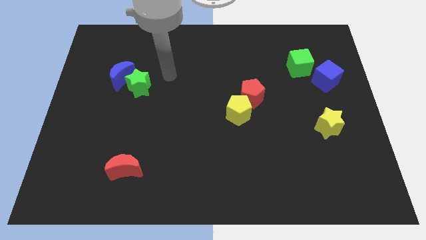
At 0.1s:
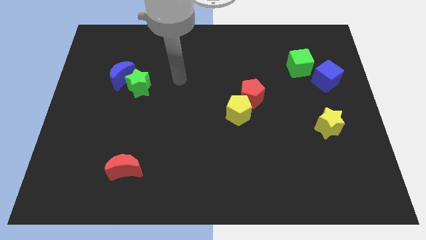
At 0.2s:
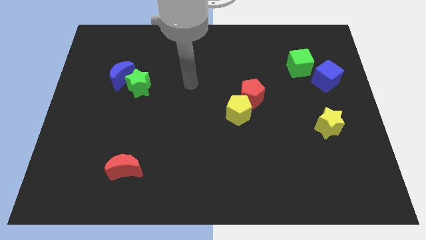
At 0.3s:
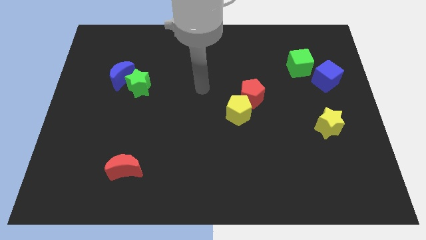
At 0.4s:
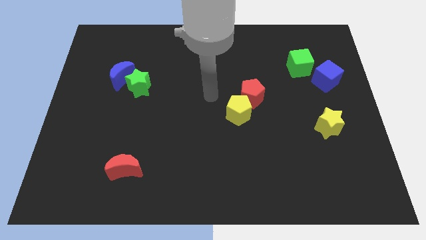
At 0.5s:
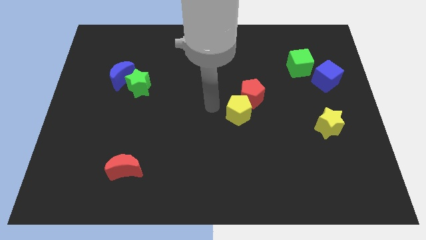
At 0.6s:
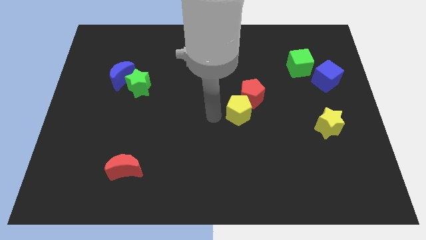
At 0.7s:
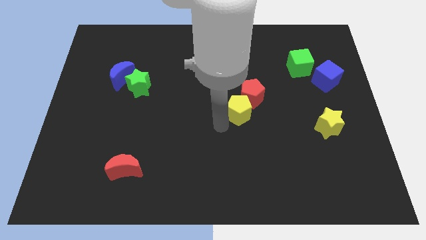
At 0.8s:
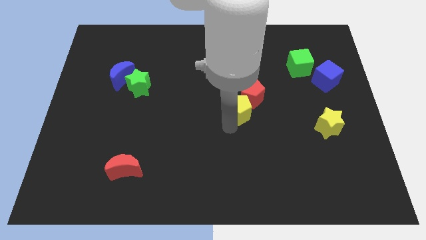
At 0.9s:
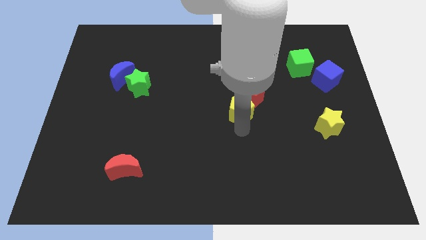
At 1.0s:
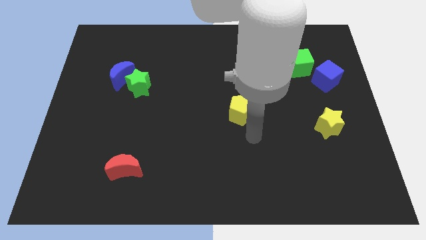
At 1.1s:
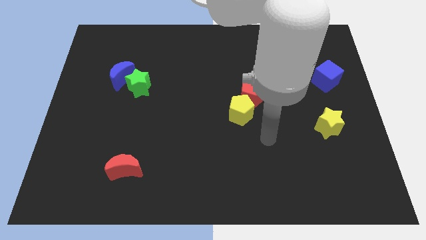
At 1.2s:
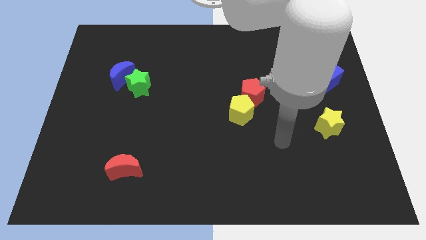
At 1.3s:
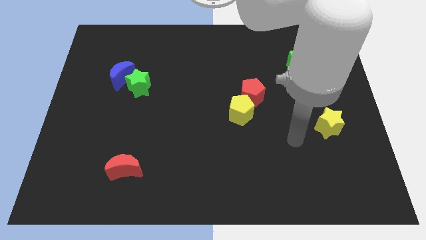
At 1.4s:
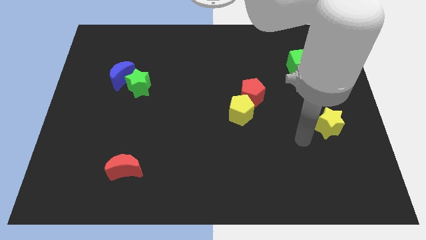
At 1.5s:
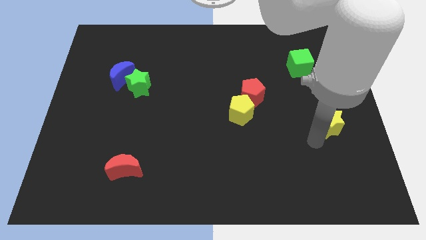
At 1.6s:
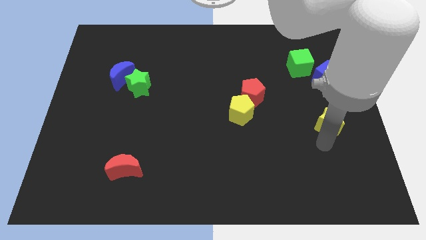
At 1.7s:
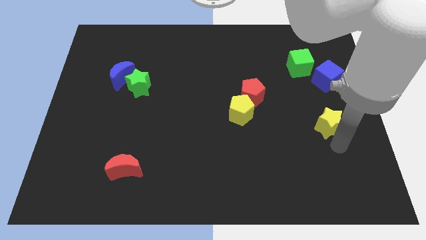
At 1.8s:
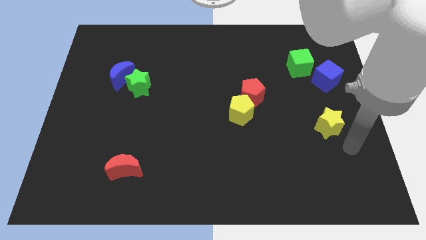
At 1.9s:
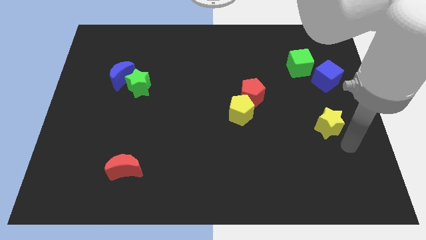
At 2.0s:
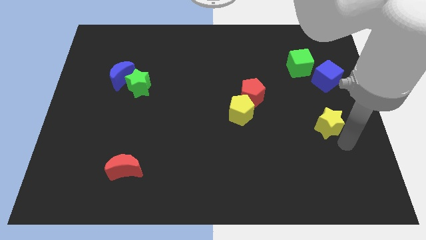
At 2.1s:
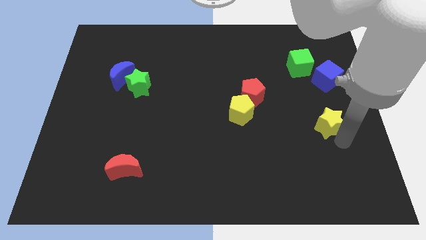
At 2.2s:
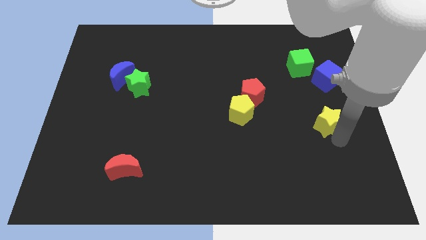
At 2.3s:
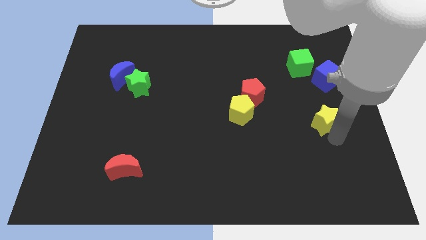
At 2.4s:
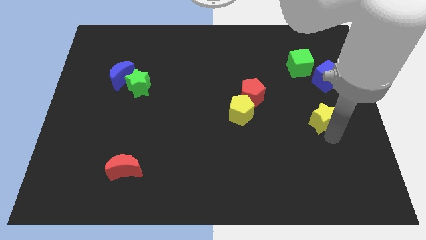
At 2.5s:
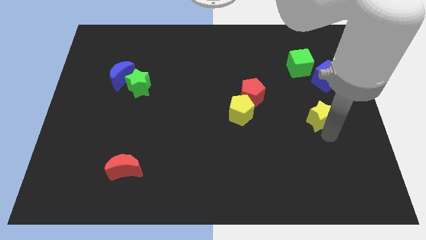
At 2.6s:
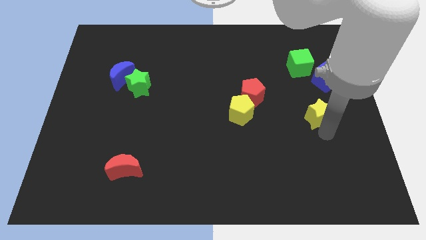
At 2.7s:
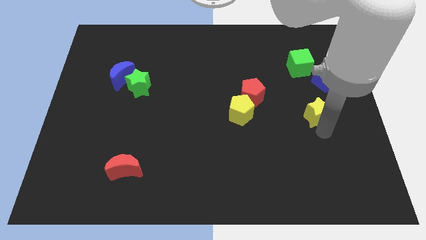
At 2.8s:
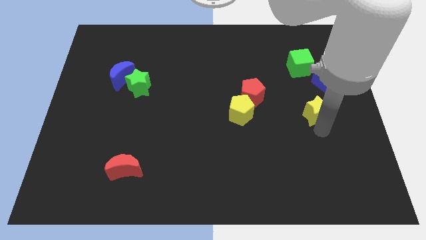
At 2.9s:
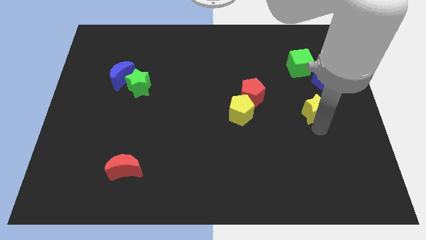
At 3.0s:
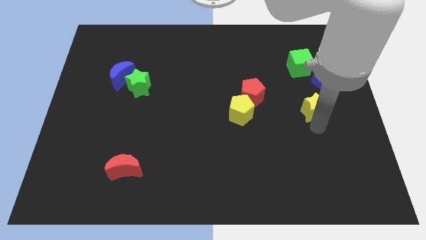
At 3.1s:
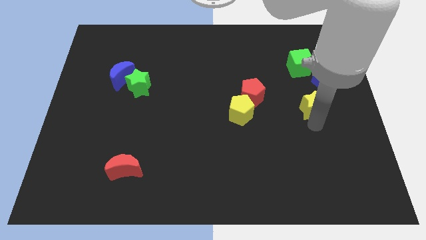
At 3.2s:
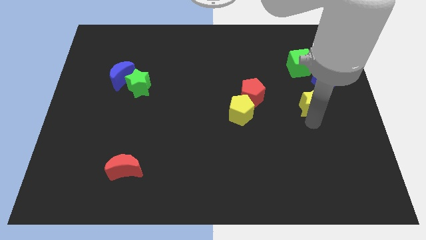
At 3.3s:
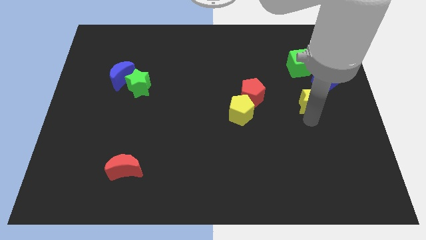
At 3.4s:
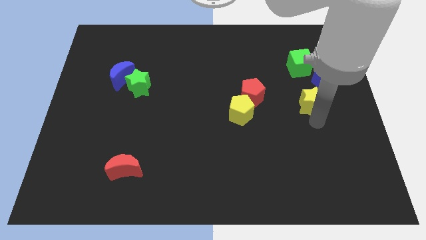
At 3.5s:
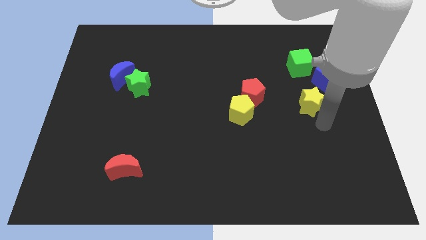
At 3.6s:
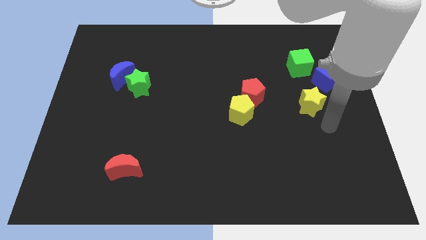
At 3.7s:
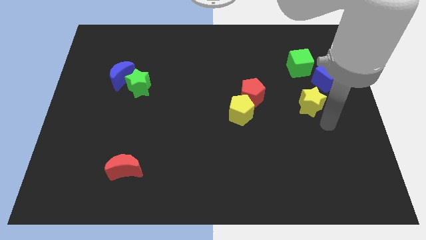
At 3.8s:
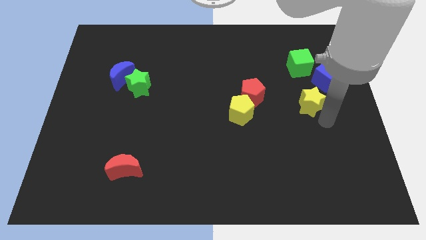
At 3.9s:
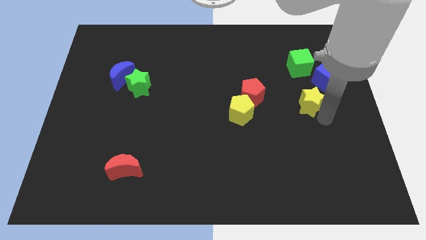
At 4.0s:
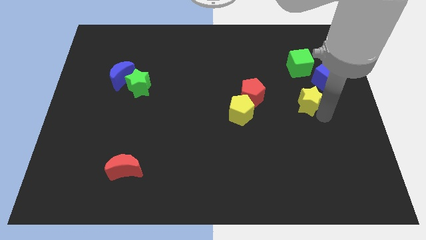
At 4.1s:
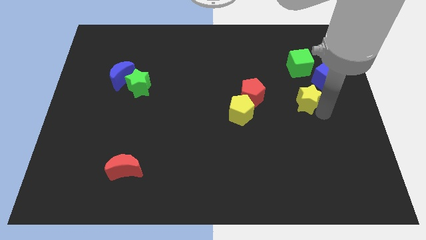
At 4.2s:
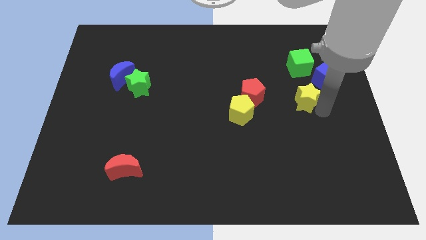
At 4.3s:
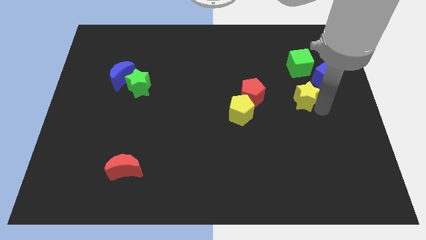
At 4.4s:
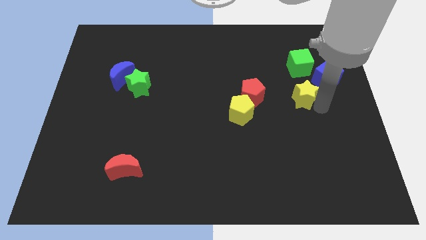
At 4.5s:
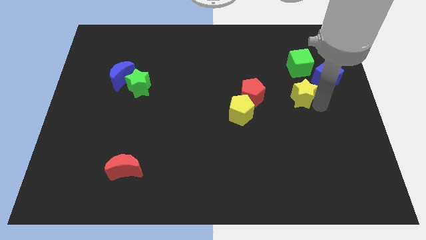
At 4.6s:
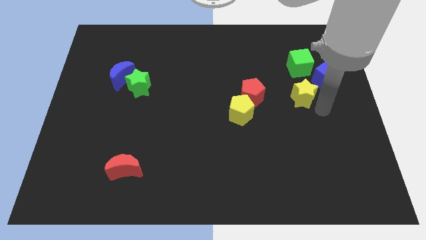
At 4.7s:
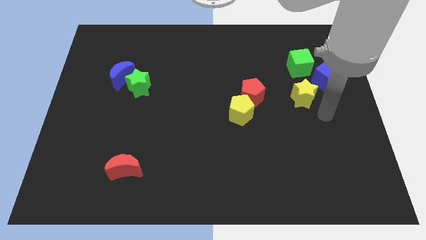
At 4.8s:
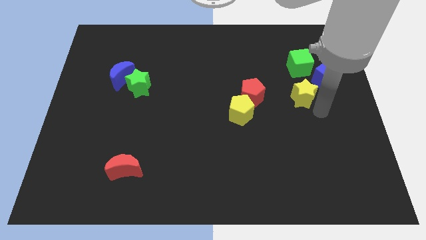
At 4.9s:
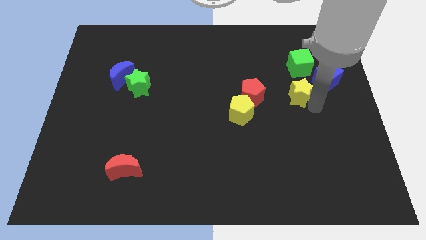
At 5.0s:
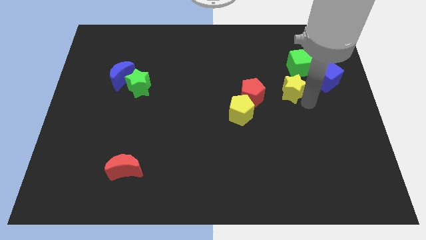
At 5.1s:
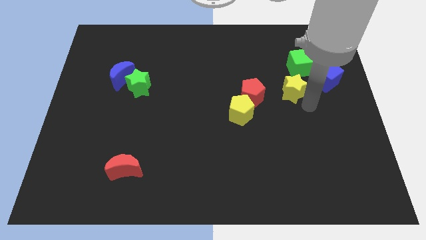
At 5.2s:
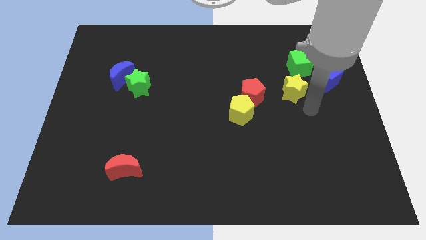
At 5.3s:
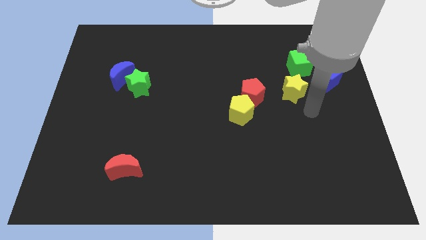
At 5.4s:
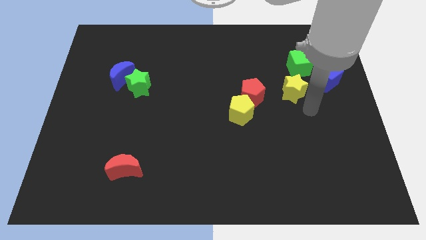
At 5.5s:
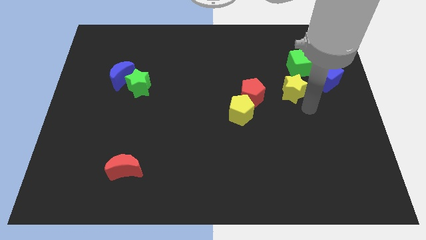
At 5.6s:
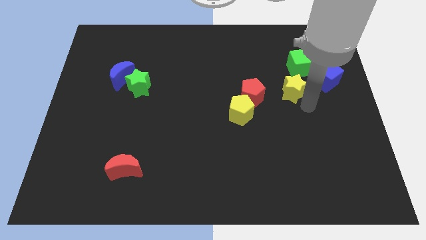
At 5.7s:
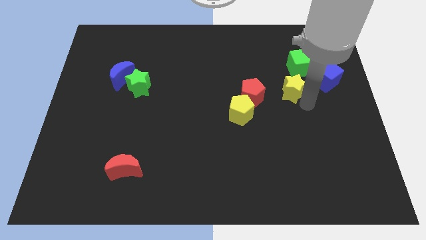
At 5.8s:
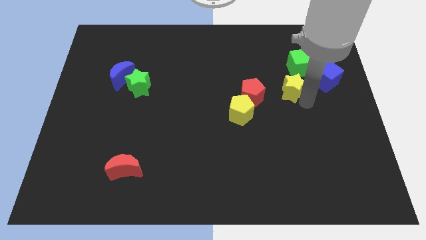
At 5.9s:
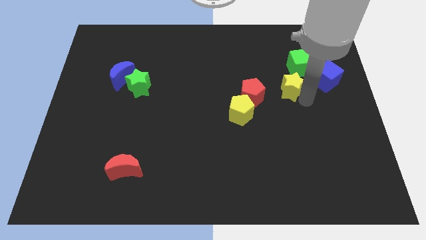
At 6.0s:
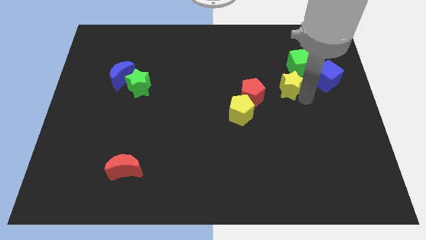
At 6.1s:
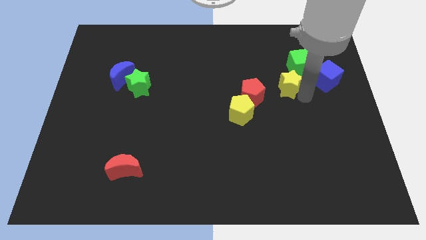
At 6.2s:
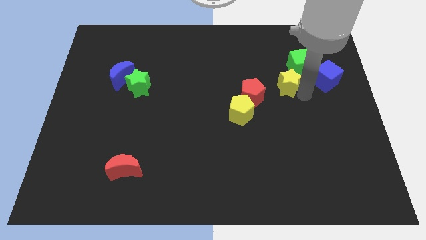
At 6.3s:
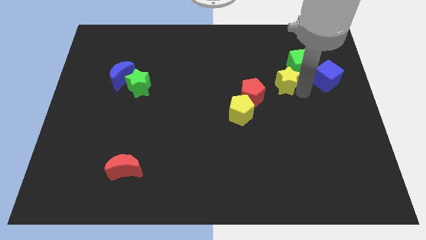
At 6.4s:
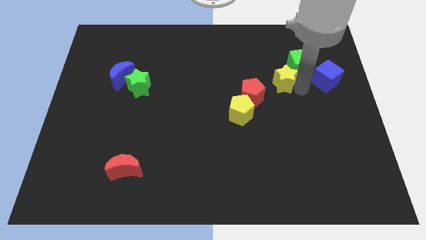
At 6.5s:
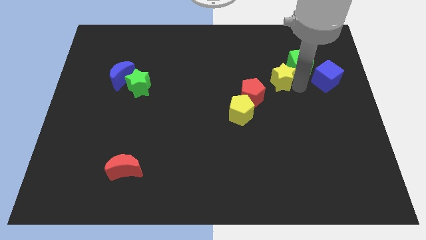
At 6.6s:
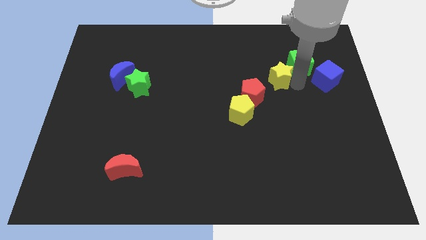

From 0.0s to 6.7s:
slide the yellow star left of the green cube

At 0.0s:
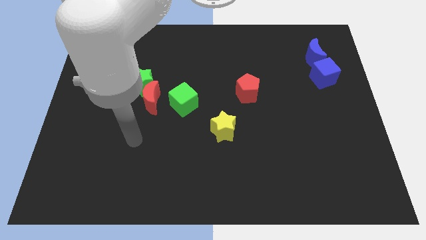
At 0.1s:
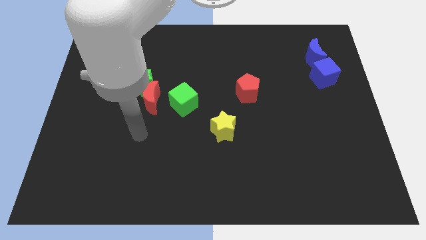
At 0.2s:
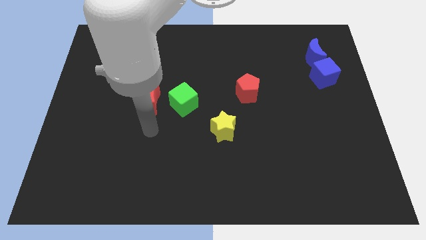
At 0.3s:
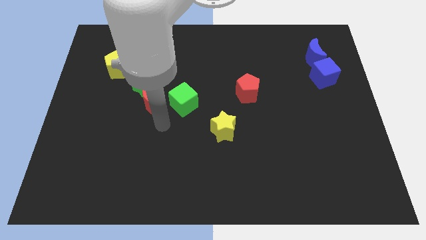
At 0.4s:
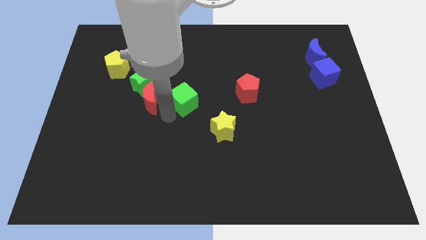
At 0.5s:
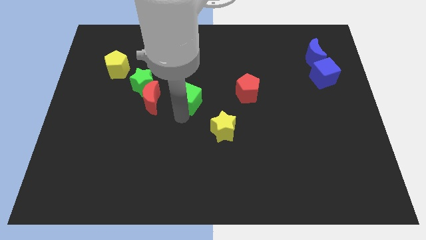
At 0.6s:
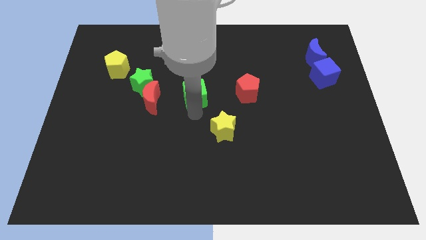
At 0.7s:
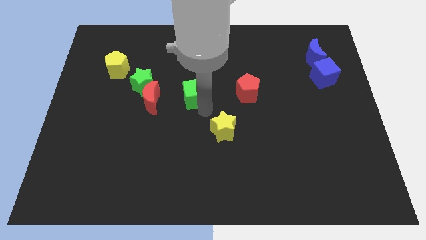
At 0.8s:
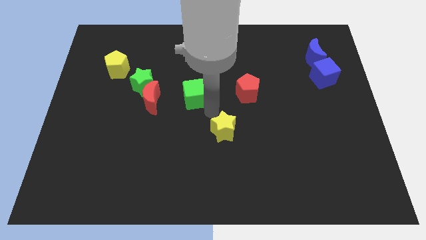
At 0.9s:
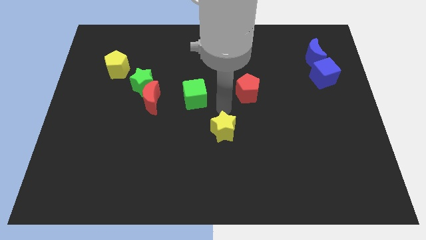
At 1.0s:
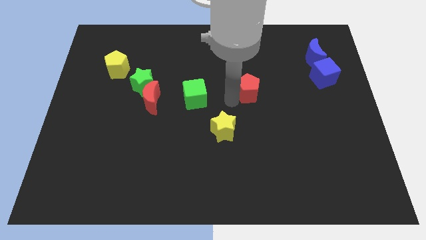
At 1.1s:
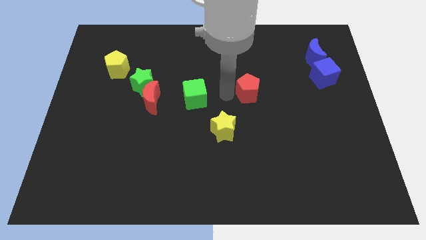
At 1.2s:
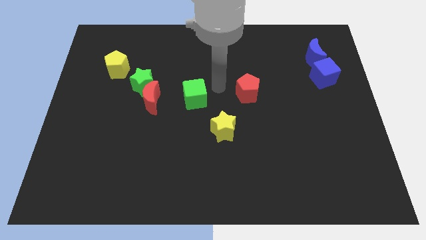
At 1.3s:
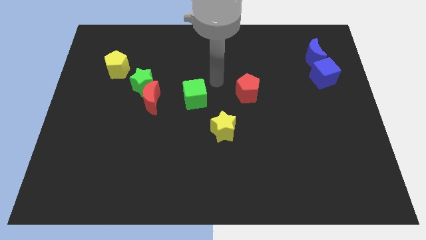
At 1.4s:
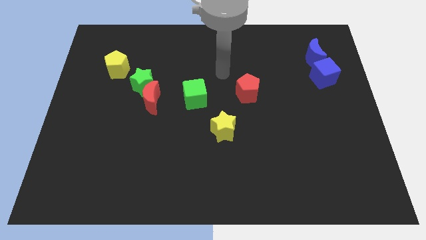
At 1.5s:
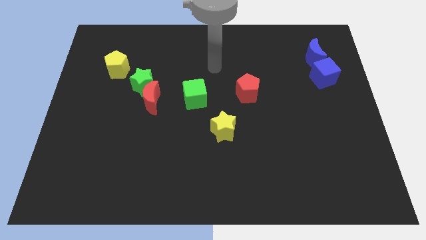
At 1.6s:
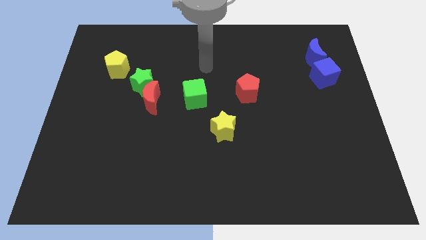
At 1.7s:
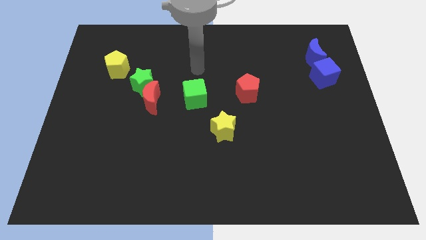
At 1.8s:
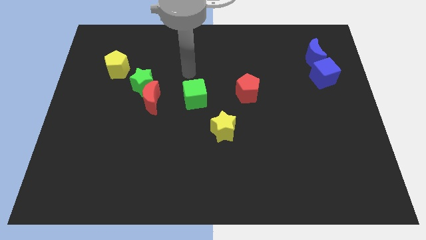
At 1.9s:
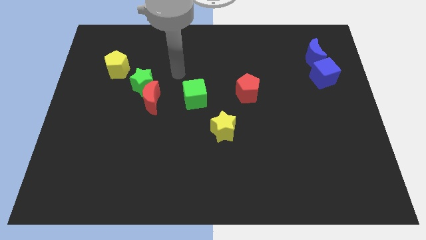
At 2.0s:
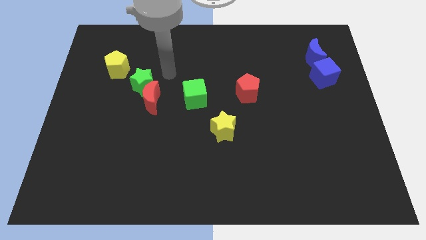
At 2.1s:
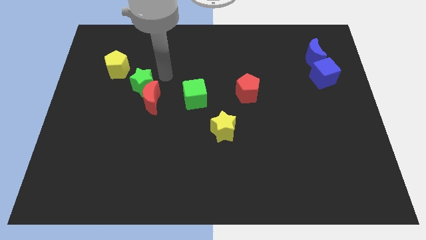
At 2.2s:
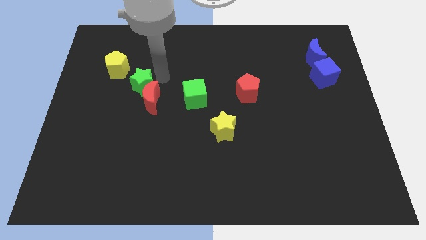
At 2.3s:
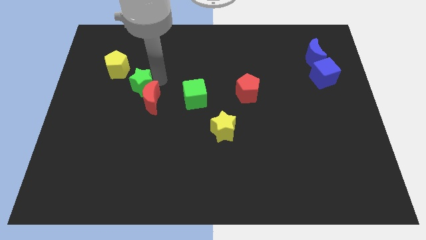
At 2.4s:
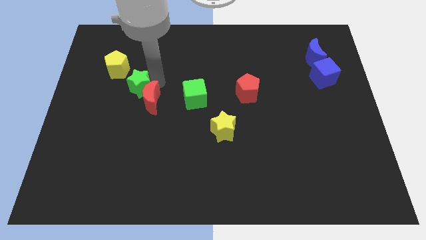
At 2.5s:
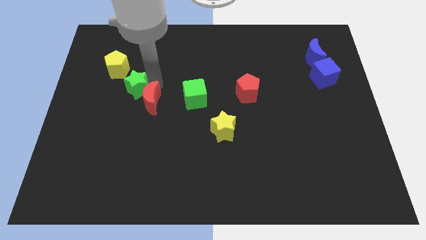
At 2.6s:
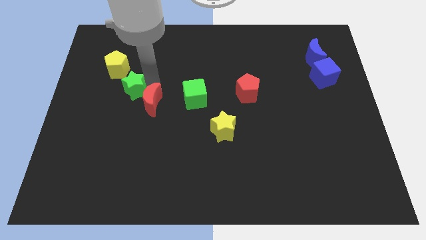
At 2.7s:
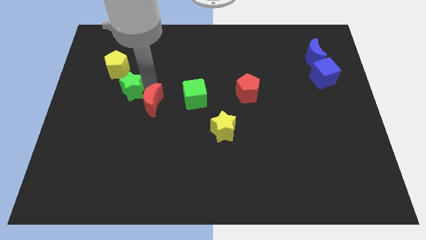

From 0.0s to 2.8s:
push the green star below the yellow pentagon
